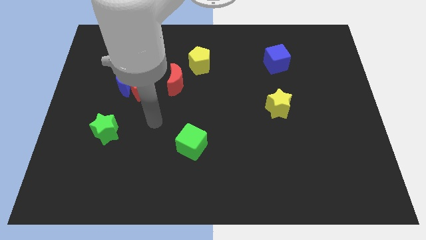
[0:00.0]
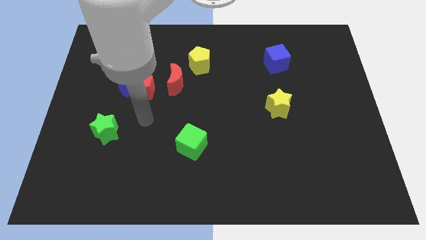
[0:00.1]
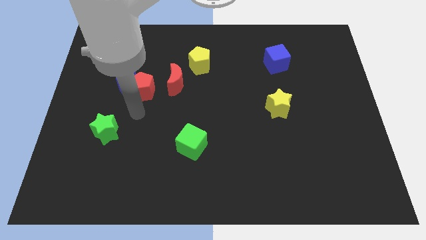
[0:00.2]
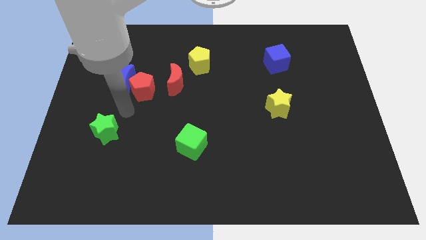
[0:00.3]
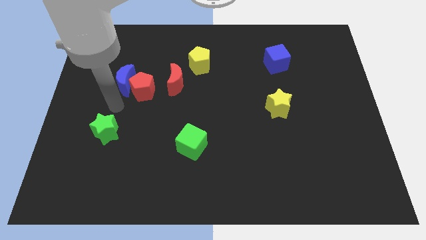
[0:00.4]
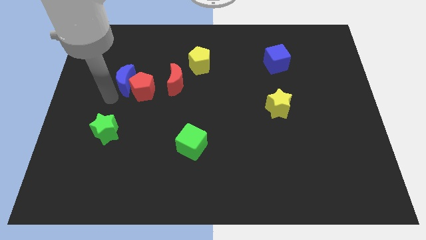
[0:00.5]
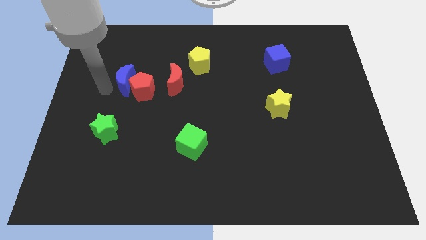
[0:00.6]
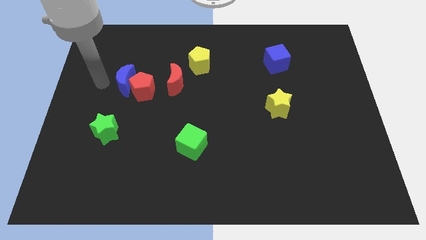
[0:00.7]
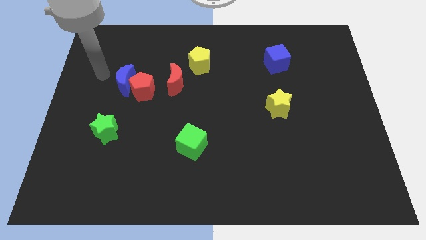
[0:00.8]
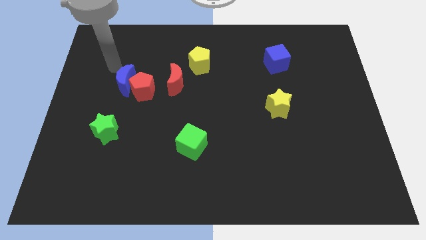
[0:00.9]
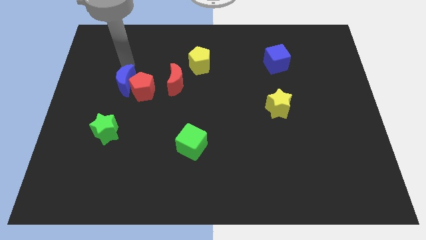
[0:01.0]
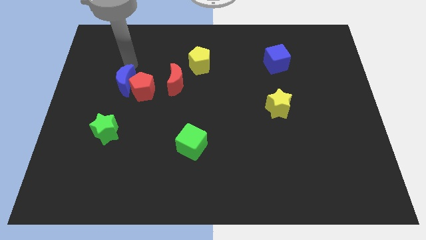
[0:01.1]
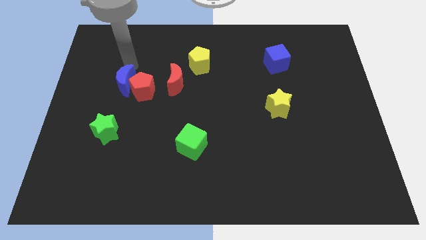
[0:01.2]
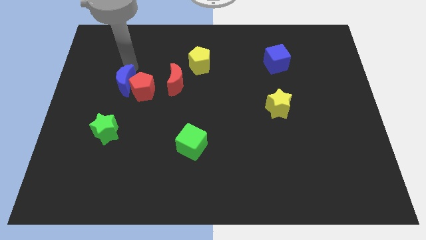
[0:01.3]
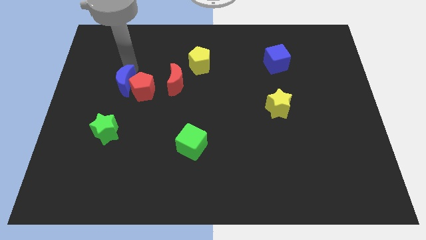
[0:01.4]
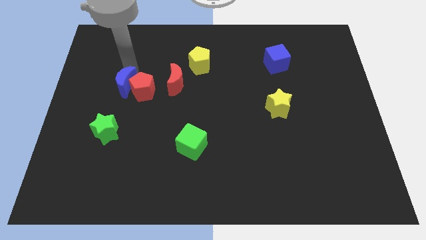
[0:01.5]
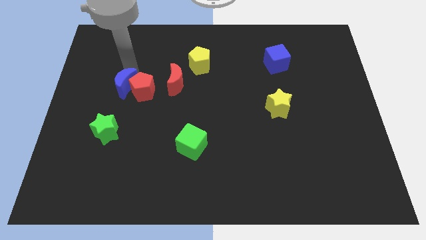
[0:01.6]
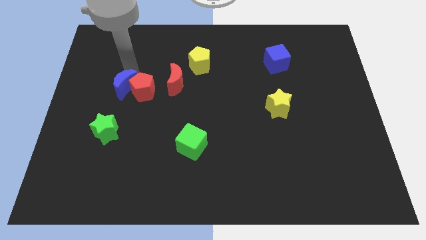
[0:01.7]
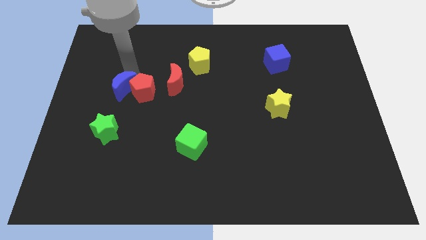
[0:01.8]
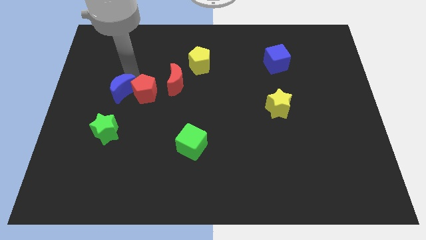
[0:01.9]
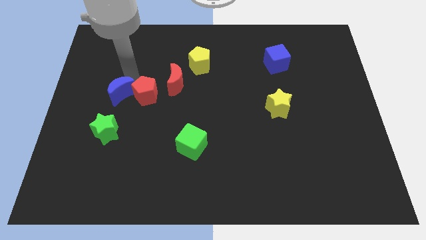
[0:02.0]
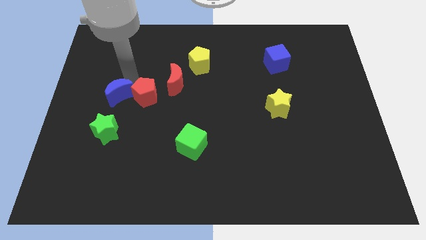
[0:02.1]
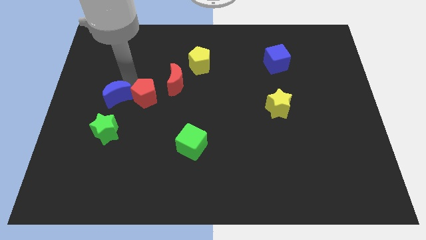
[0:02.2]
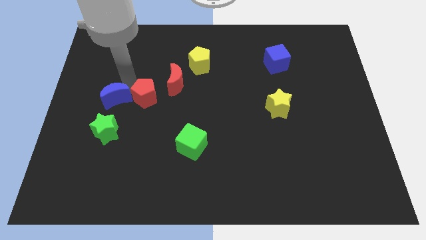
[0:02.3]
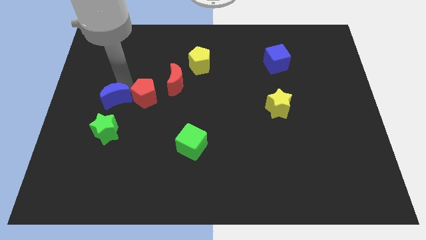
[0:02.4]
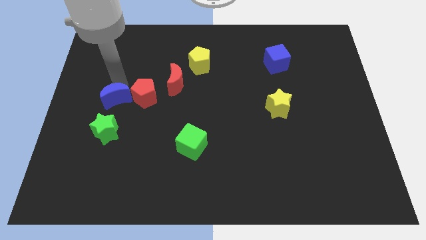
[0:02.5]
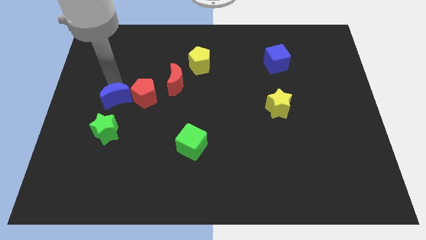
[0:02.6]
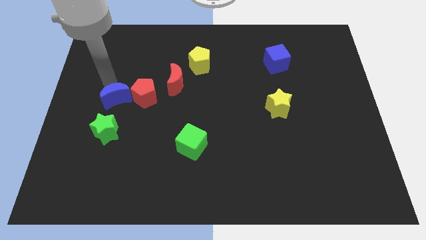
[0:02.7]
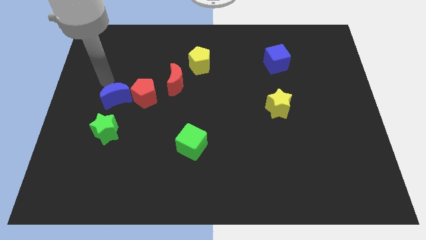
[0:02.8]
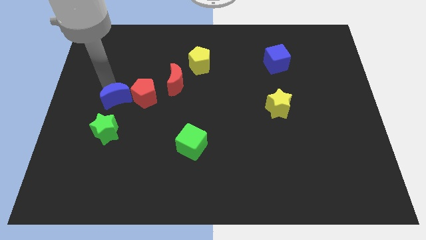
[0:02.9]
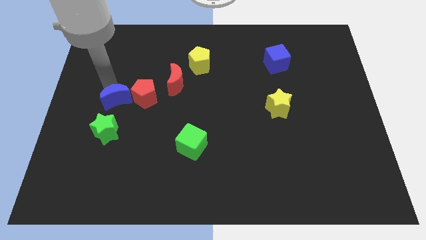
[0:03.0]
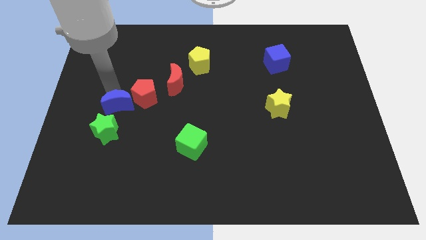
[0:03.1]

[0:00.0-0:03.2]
slightly move the blue moon downwards

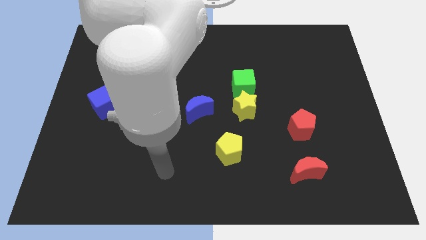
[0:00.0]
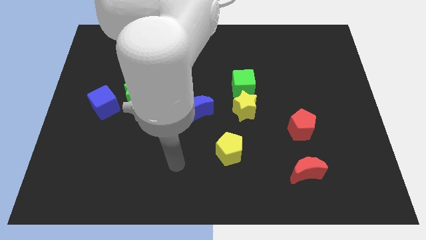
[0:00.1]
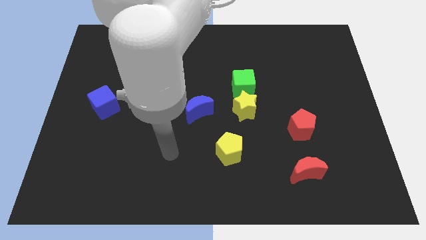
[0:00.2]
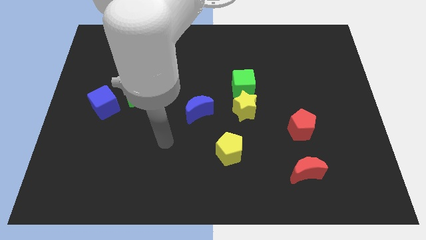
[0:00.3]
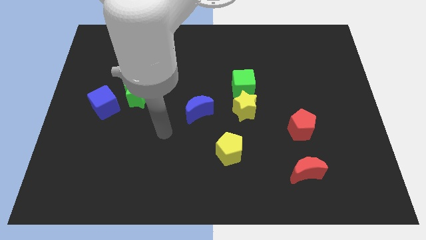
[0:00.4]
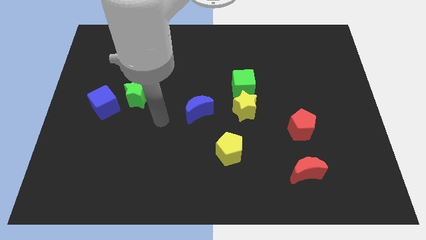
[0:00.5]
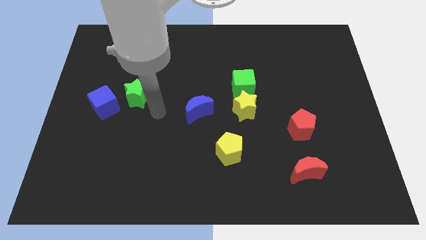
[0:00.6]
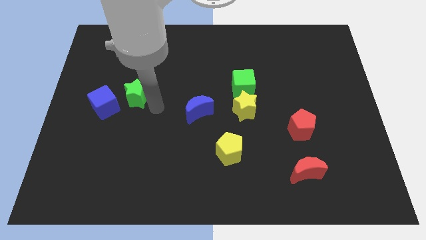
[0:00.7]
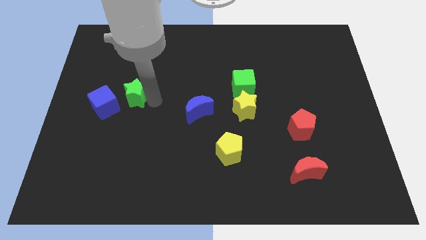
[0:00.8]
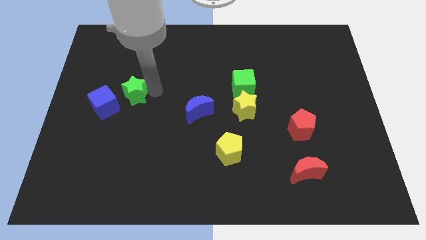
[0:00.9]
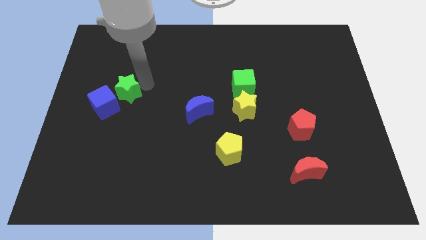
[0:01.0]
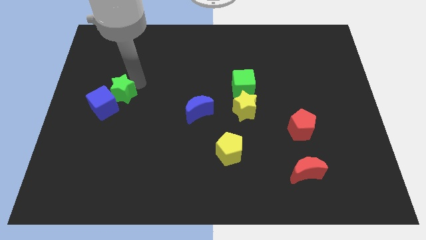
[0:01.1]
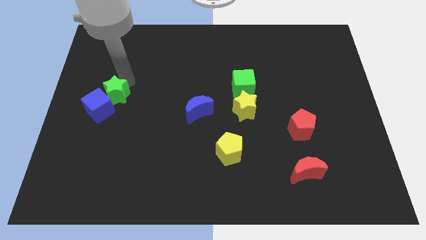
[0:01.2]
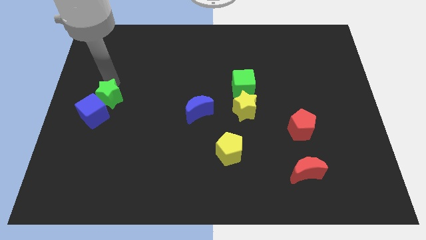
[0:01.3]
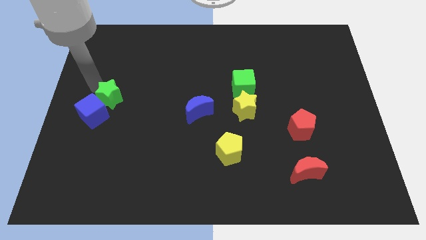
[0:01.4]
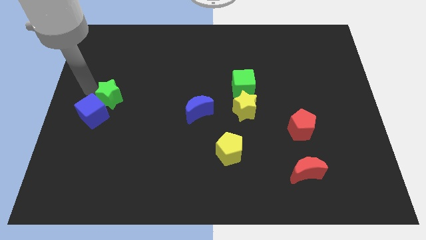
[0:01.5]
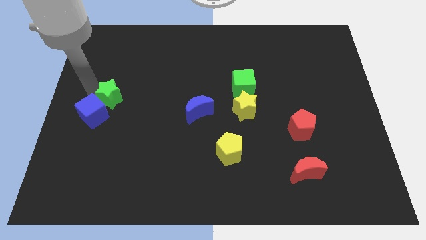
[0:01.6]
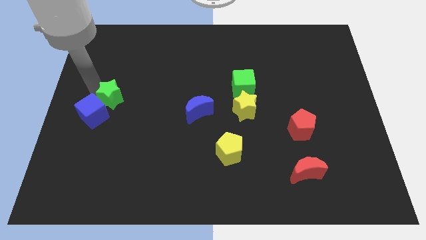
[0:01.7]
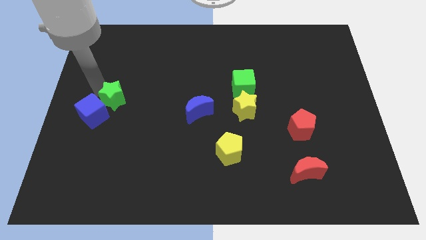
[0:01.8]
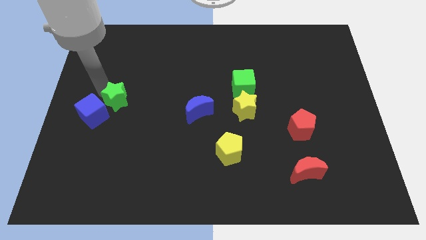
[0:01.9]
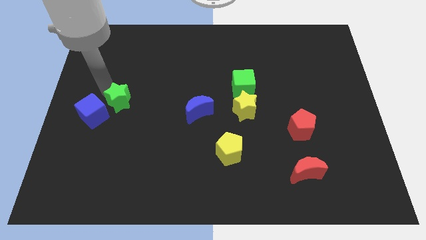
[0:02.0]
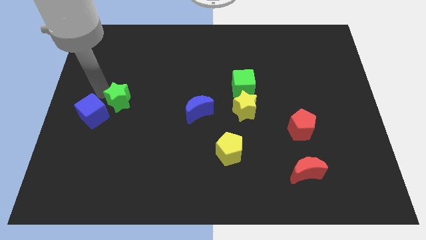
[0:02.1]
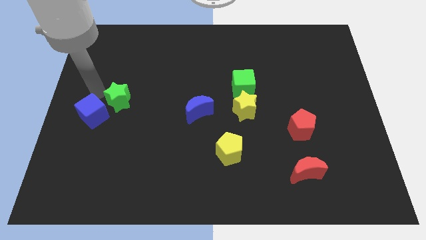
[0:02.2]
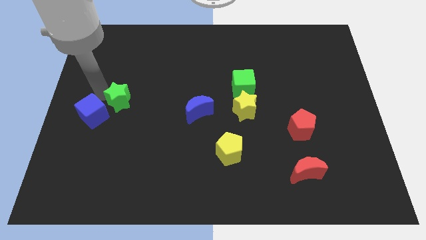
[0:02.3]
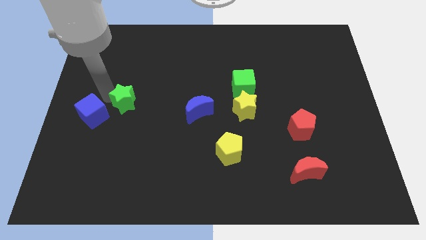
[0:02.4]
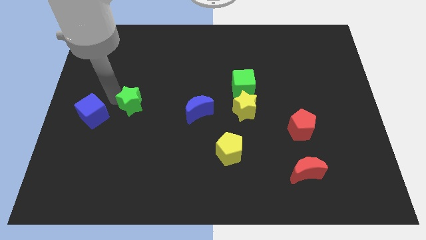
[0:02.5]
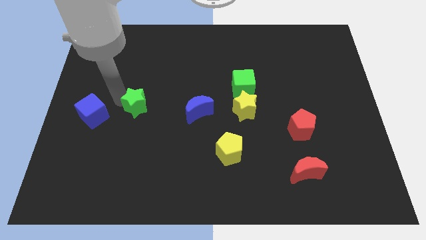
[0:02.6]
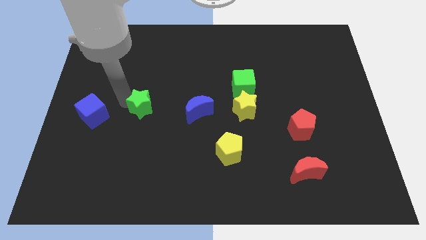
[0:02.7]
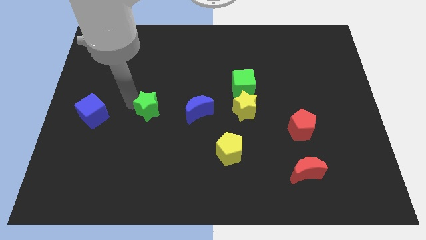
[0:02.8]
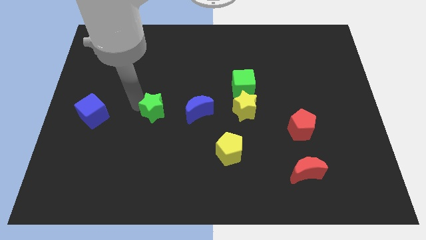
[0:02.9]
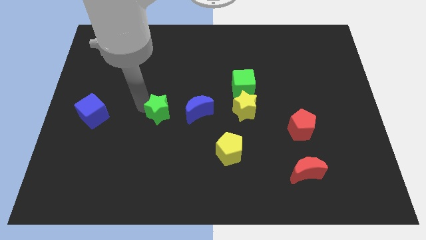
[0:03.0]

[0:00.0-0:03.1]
slightly move the green star down and to the right

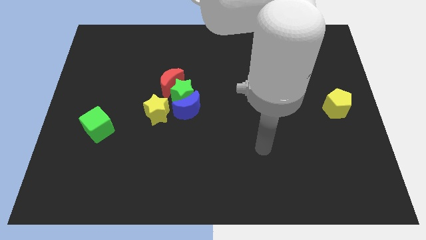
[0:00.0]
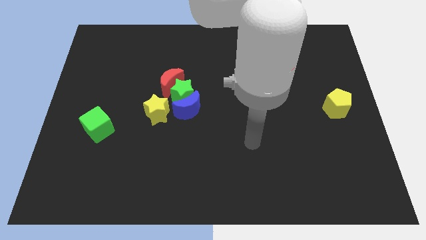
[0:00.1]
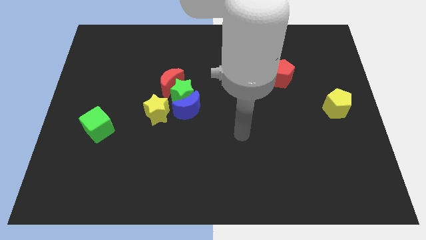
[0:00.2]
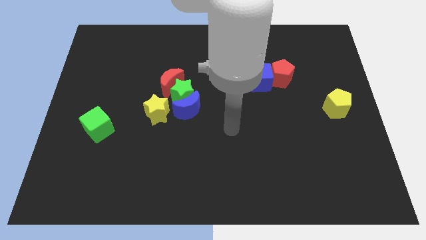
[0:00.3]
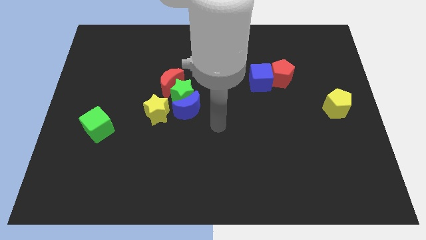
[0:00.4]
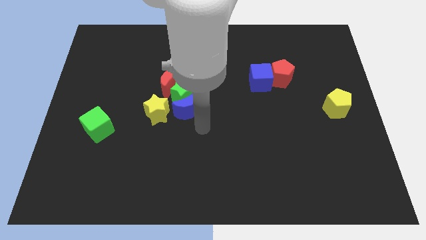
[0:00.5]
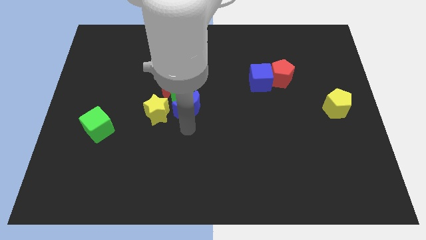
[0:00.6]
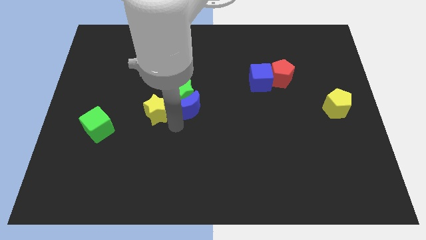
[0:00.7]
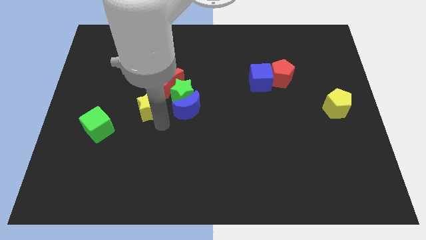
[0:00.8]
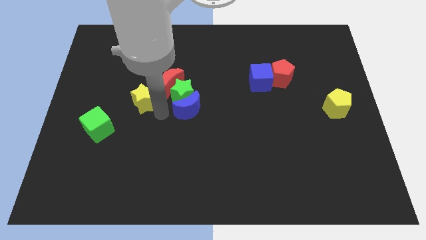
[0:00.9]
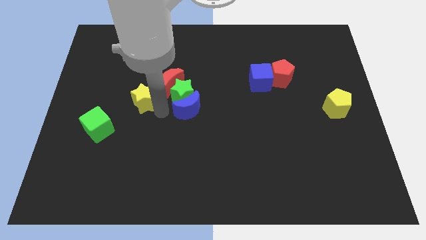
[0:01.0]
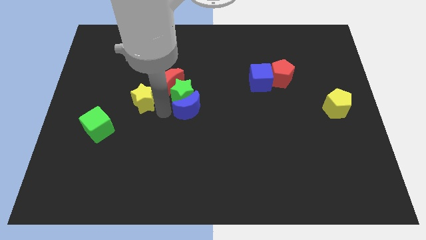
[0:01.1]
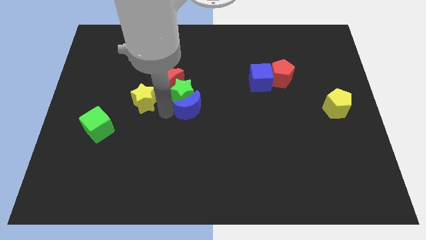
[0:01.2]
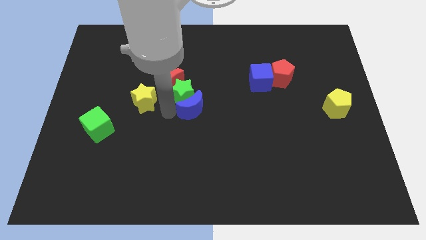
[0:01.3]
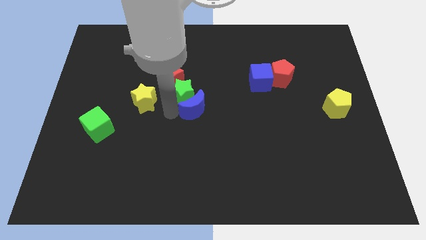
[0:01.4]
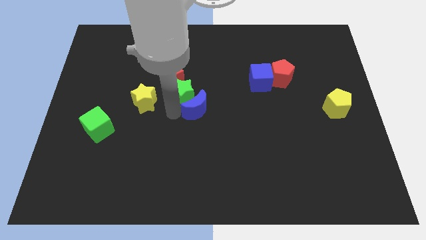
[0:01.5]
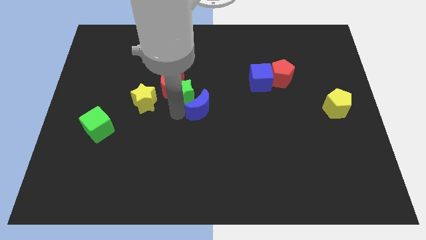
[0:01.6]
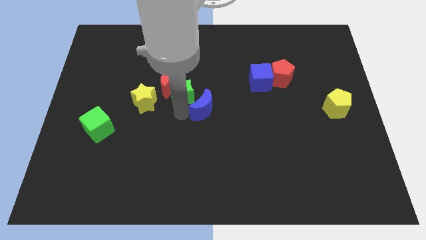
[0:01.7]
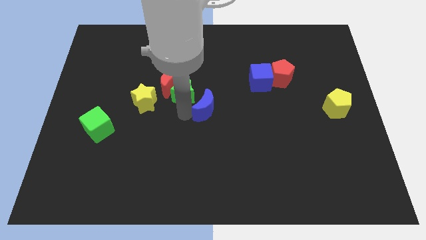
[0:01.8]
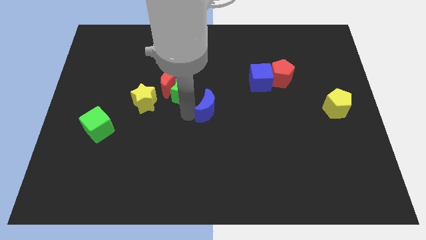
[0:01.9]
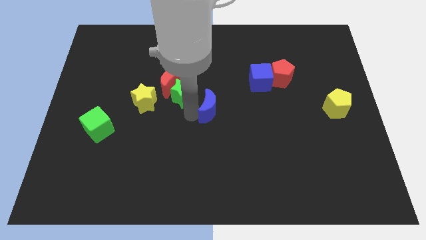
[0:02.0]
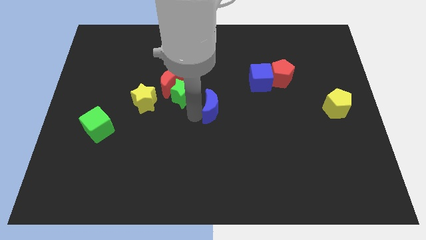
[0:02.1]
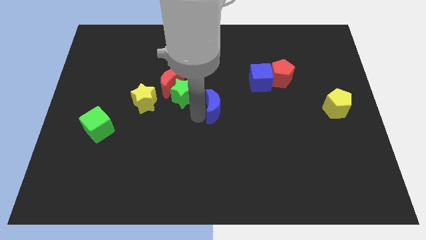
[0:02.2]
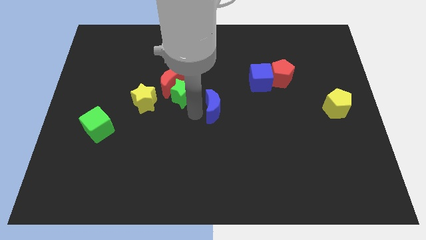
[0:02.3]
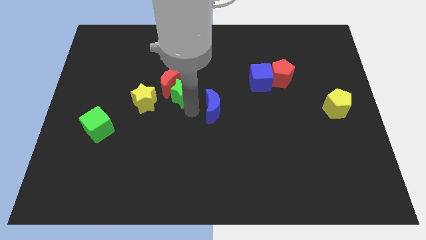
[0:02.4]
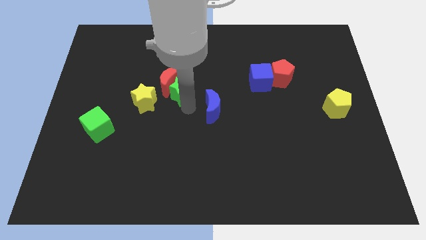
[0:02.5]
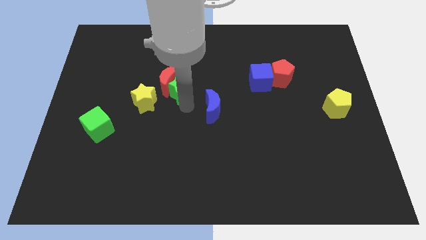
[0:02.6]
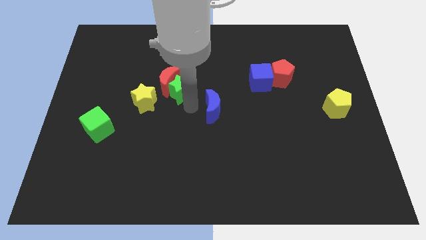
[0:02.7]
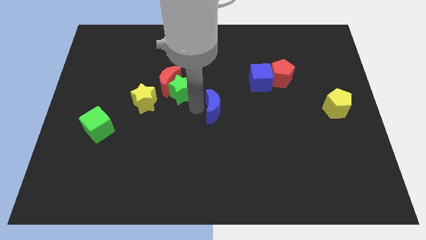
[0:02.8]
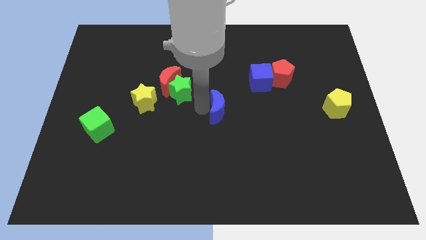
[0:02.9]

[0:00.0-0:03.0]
slide the blue moon somewhat right
